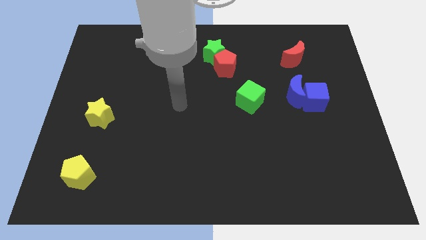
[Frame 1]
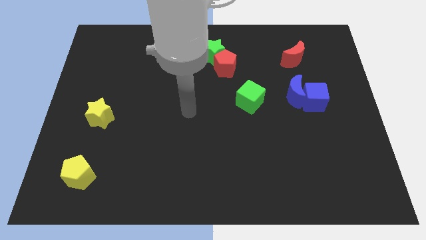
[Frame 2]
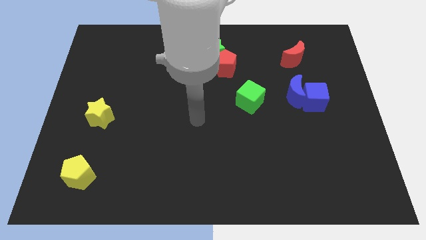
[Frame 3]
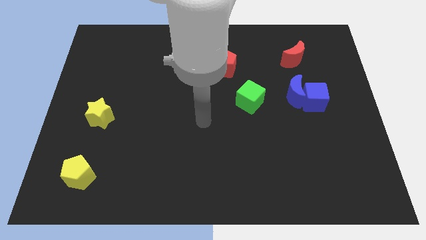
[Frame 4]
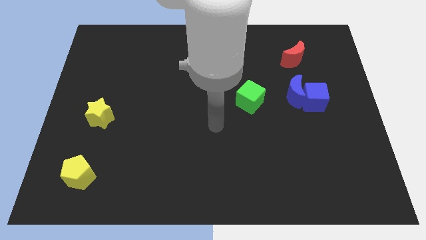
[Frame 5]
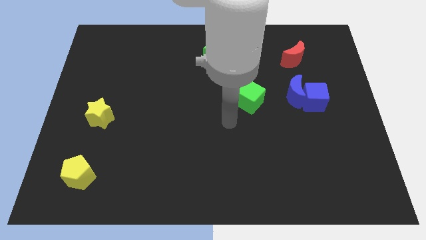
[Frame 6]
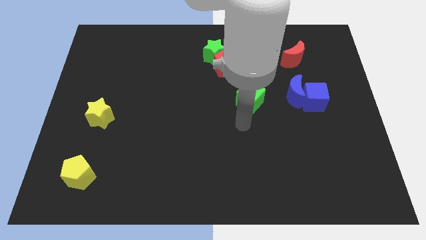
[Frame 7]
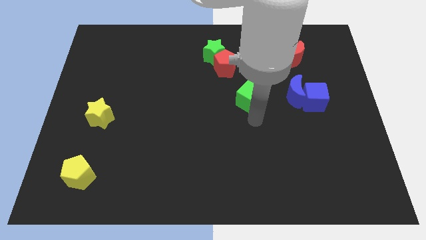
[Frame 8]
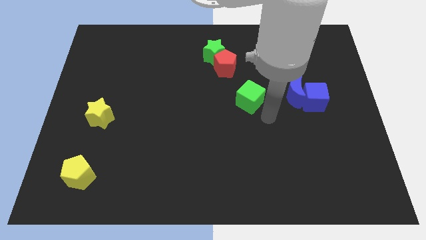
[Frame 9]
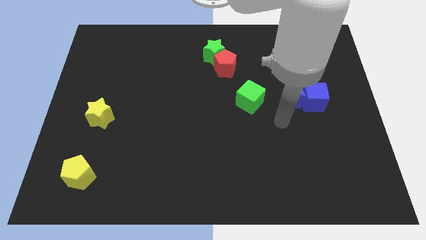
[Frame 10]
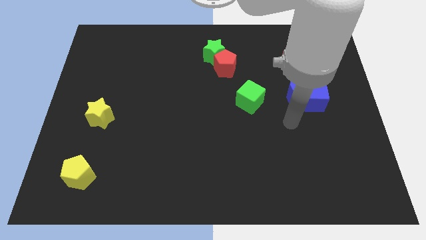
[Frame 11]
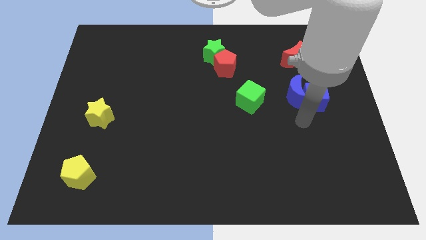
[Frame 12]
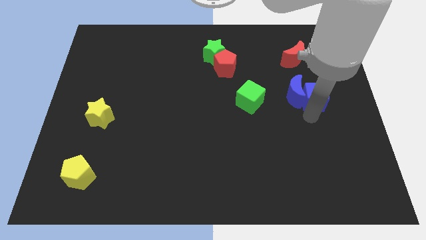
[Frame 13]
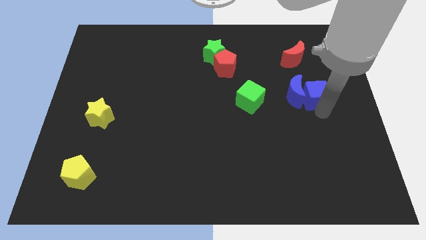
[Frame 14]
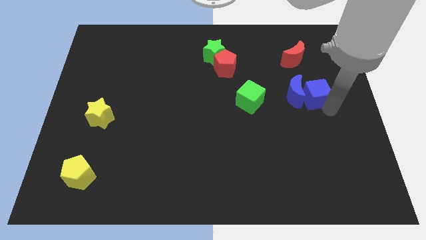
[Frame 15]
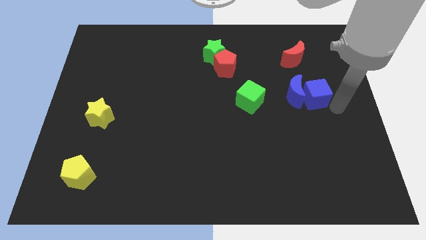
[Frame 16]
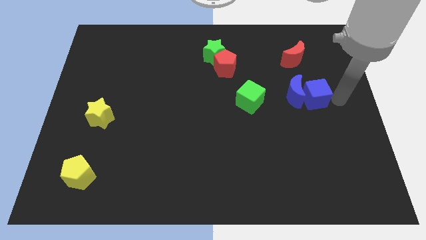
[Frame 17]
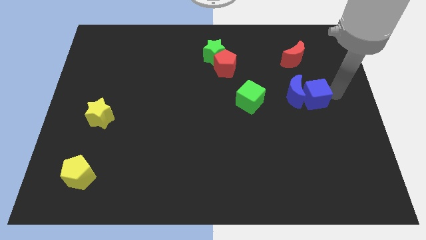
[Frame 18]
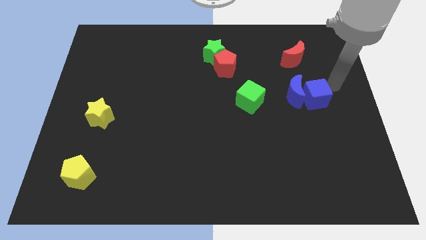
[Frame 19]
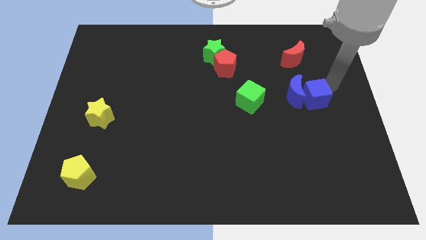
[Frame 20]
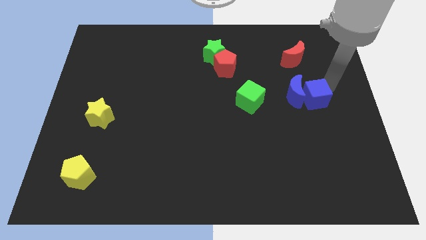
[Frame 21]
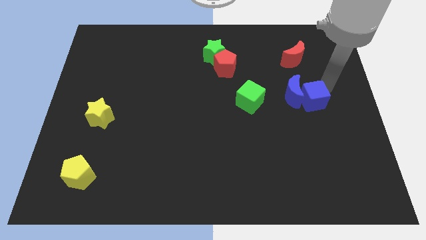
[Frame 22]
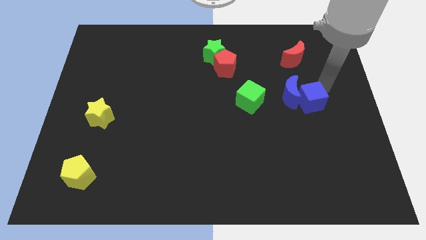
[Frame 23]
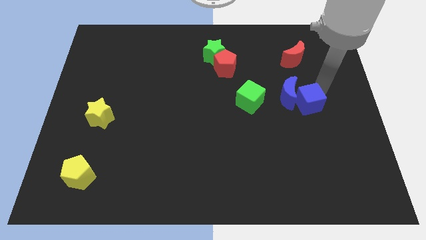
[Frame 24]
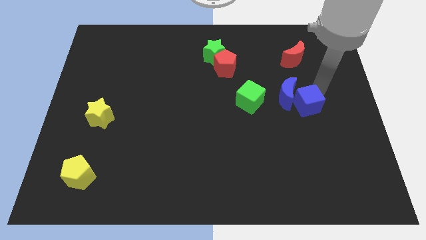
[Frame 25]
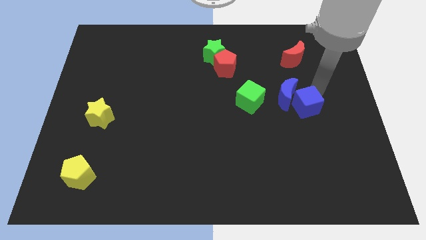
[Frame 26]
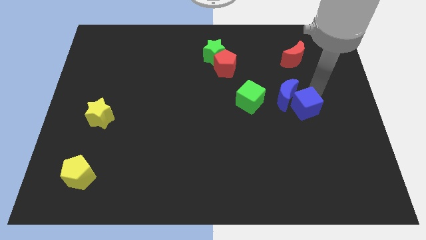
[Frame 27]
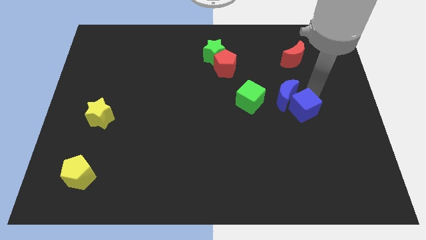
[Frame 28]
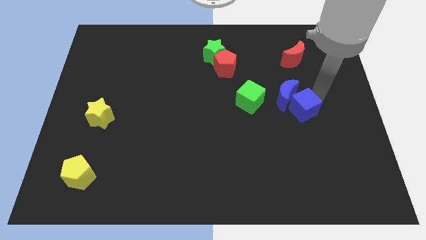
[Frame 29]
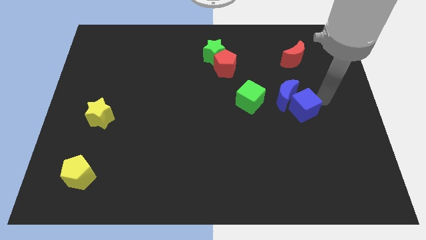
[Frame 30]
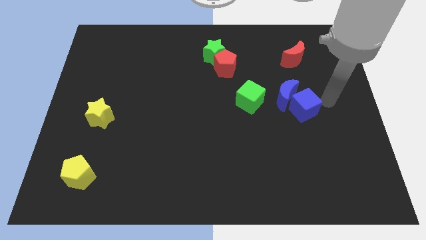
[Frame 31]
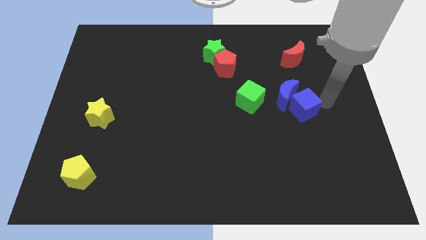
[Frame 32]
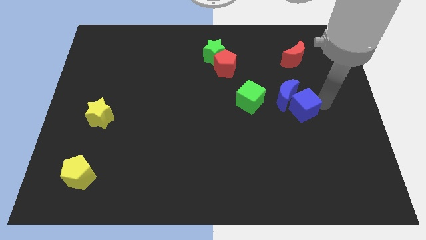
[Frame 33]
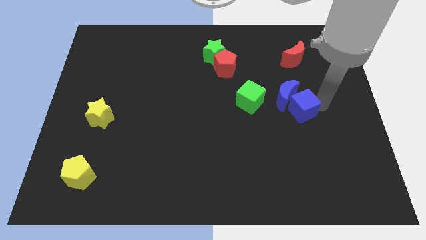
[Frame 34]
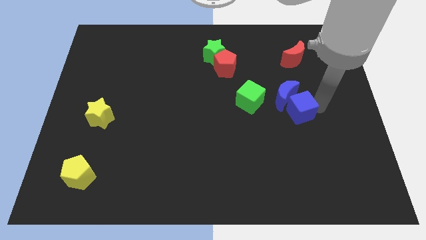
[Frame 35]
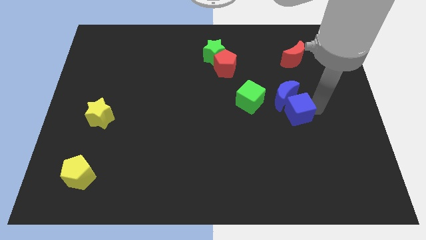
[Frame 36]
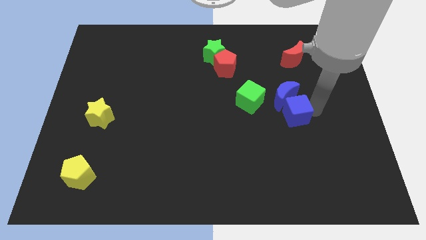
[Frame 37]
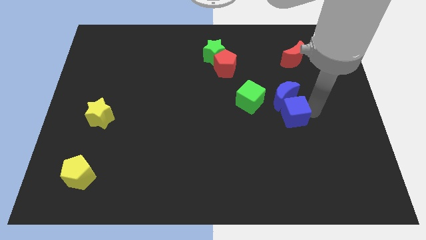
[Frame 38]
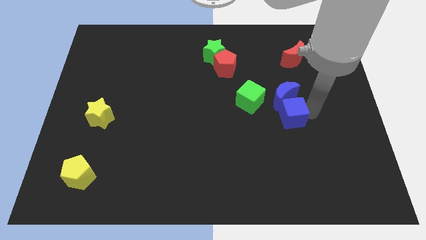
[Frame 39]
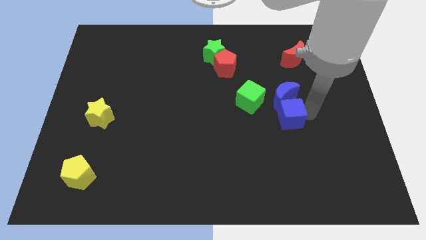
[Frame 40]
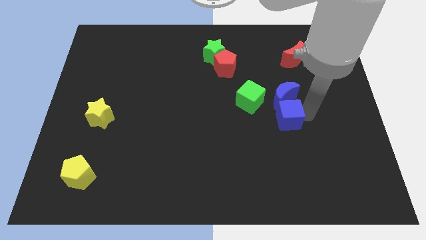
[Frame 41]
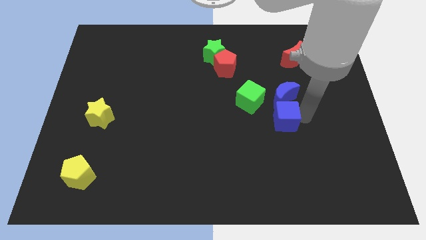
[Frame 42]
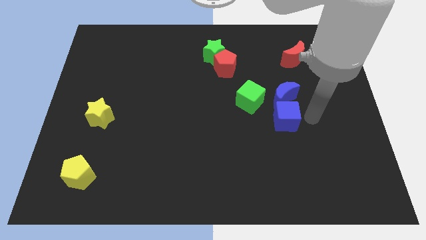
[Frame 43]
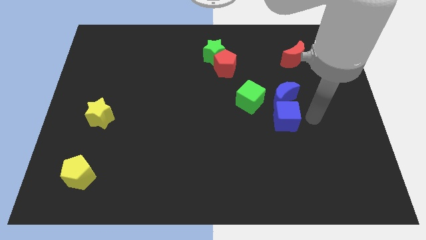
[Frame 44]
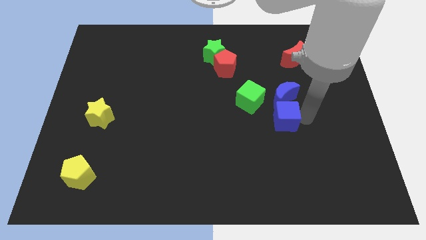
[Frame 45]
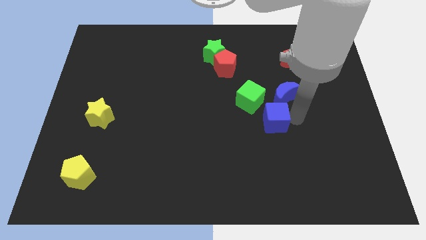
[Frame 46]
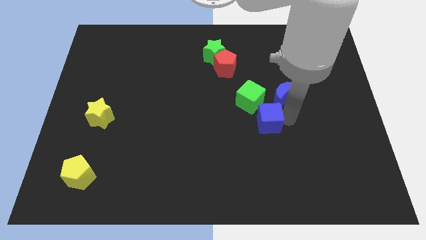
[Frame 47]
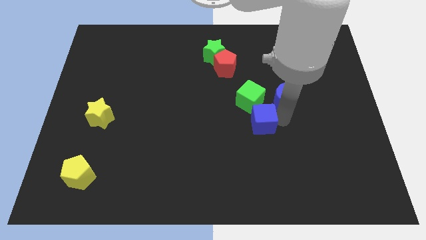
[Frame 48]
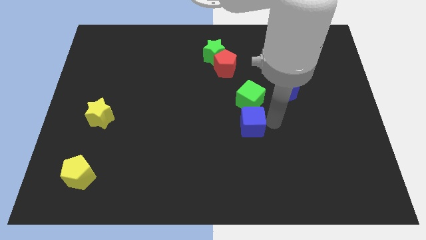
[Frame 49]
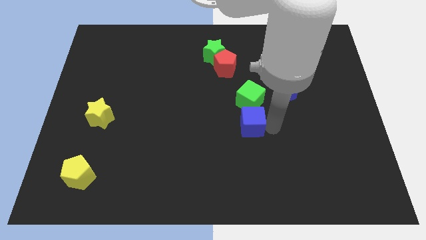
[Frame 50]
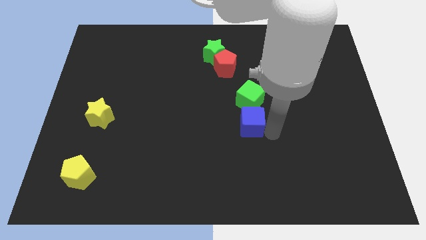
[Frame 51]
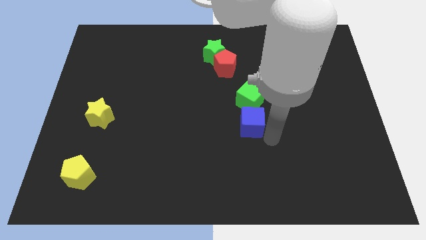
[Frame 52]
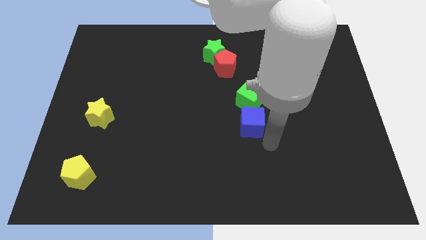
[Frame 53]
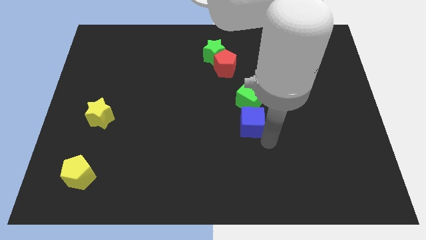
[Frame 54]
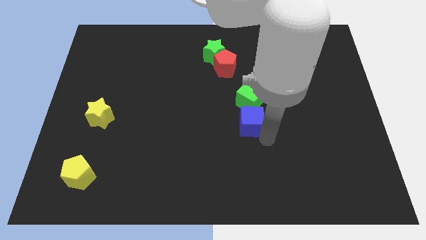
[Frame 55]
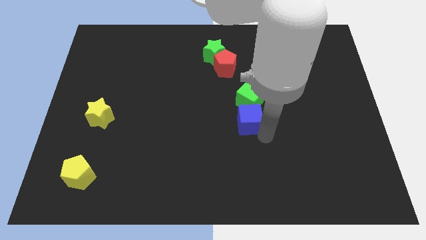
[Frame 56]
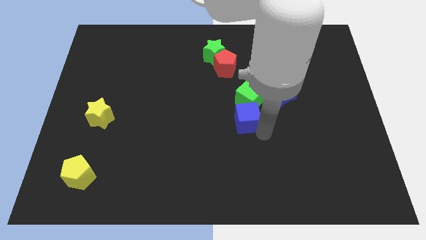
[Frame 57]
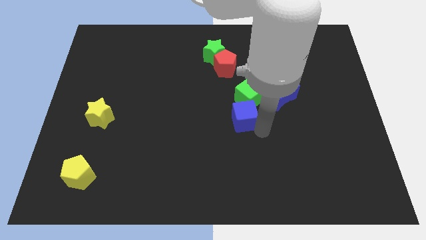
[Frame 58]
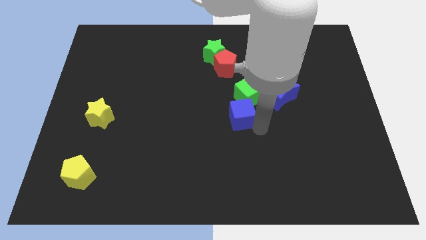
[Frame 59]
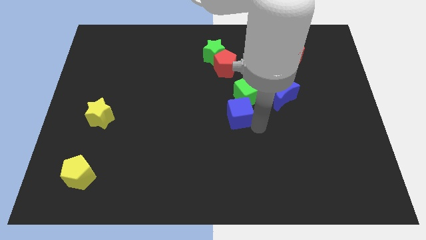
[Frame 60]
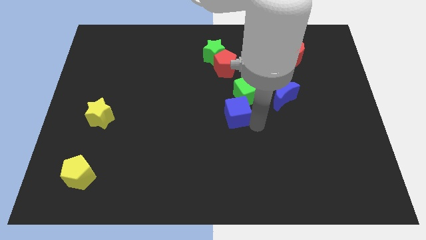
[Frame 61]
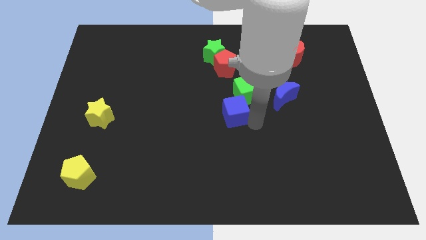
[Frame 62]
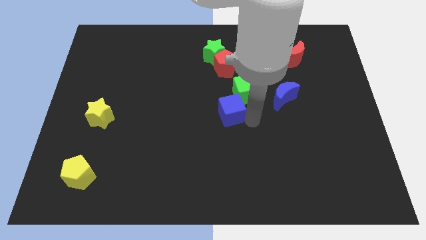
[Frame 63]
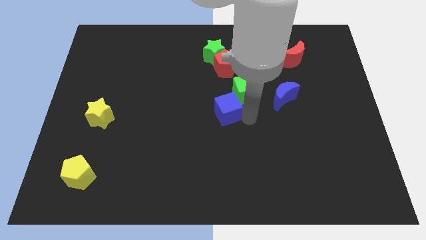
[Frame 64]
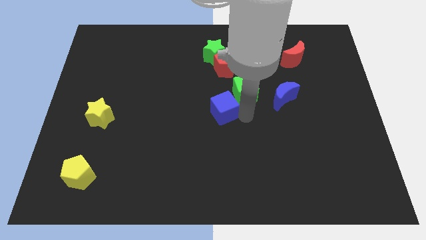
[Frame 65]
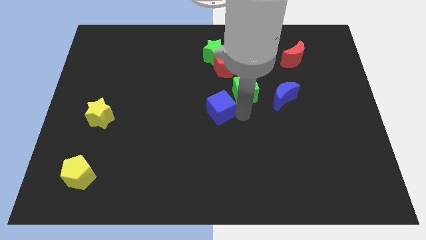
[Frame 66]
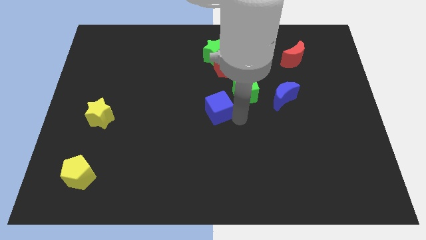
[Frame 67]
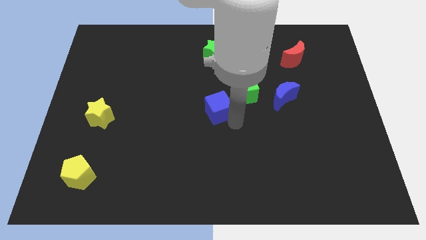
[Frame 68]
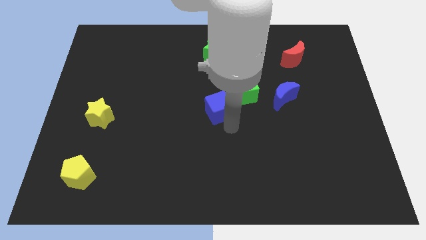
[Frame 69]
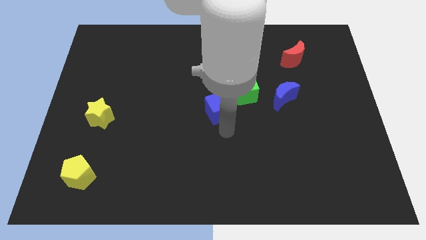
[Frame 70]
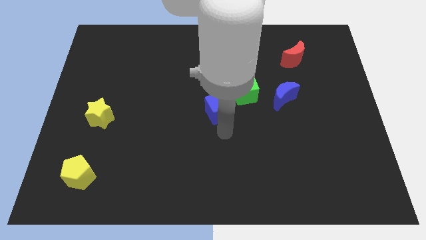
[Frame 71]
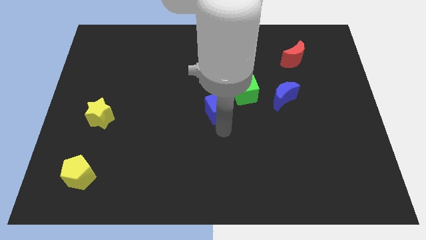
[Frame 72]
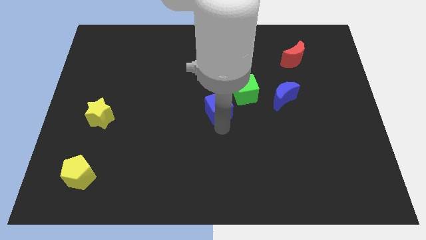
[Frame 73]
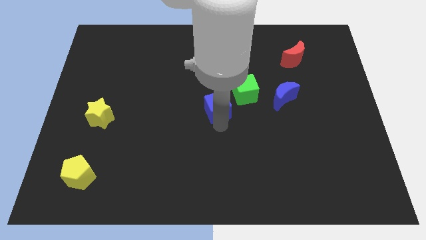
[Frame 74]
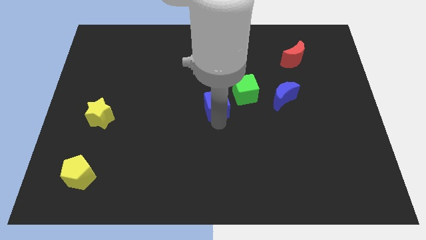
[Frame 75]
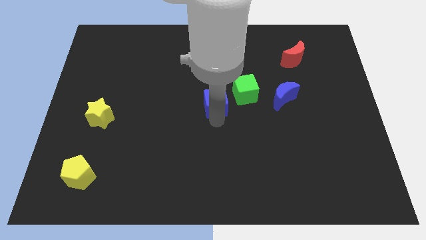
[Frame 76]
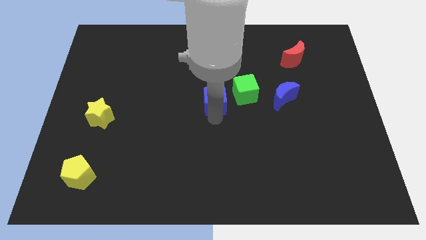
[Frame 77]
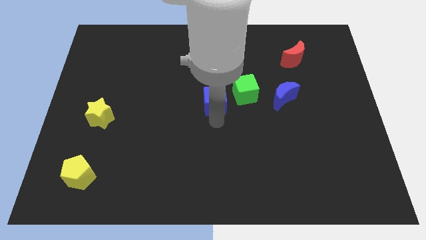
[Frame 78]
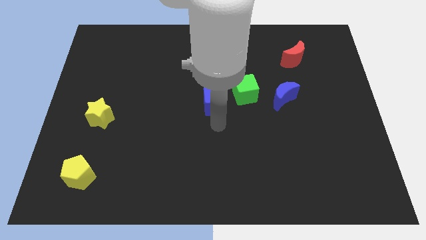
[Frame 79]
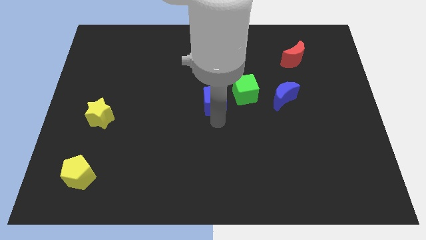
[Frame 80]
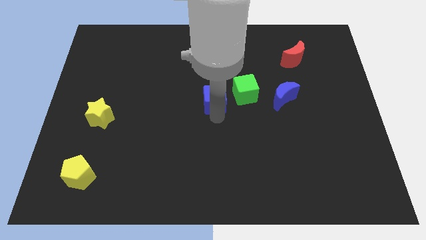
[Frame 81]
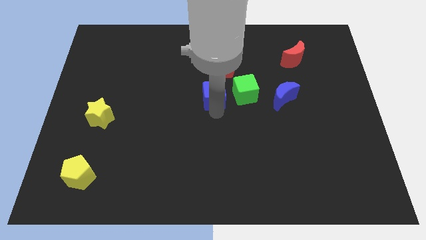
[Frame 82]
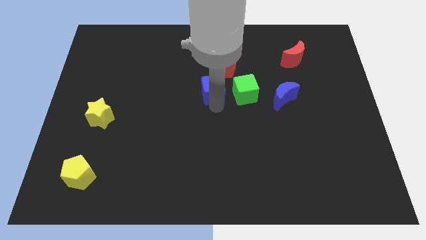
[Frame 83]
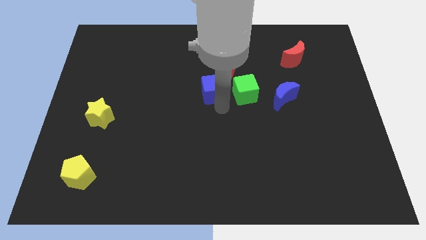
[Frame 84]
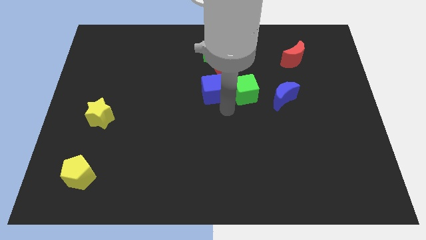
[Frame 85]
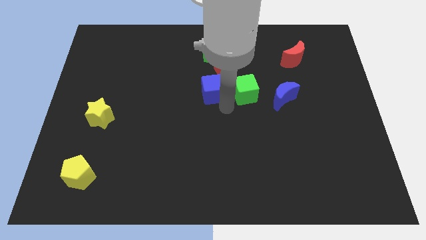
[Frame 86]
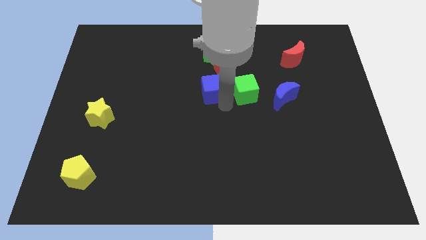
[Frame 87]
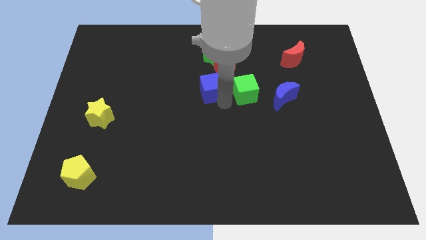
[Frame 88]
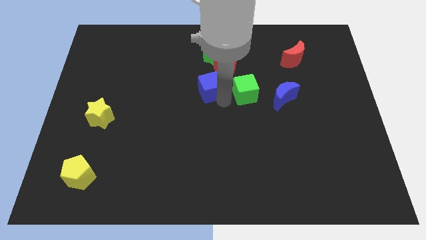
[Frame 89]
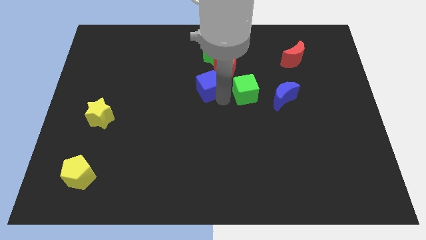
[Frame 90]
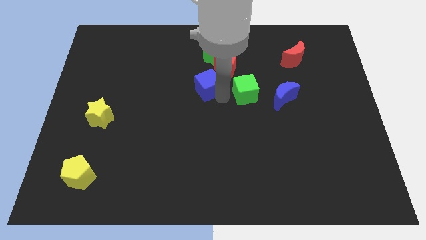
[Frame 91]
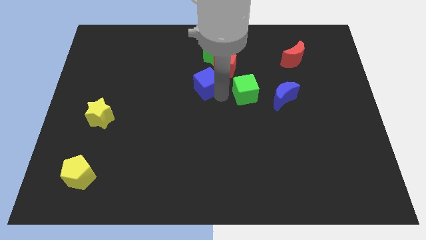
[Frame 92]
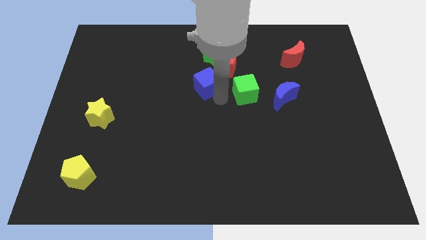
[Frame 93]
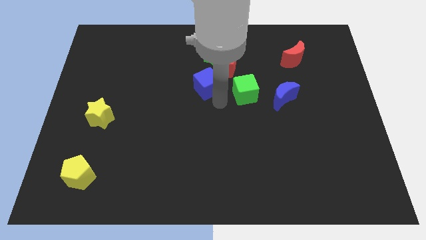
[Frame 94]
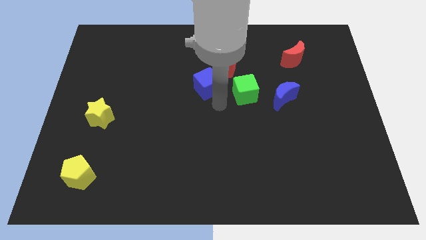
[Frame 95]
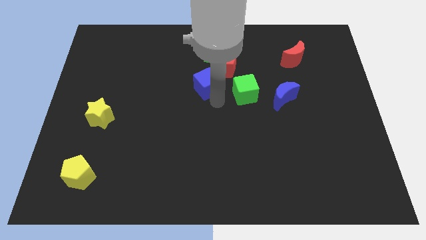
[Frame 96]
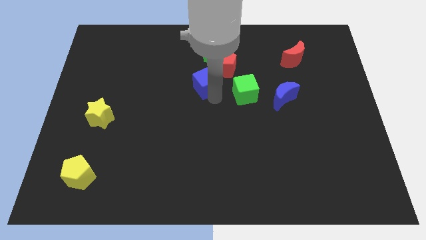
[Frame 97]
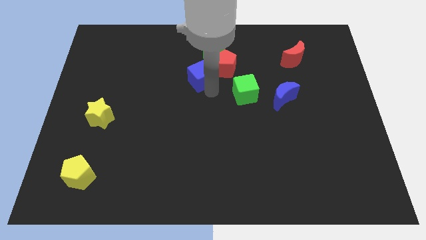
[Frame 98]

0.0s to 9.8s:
slide the blue cube left of the red pentagon
